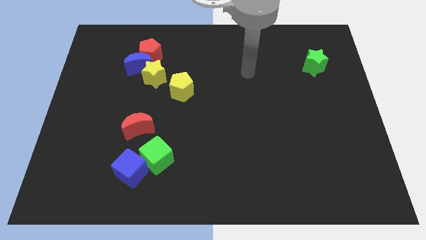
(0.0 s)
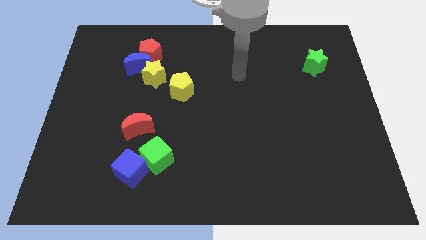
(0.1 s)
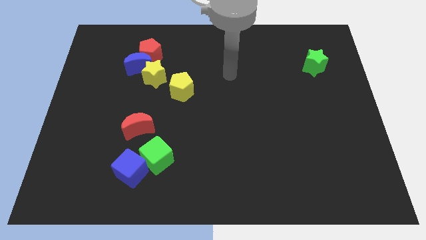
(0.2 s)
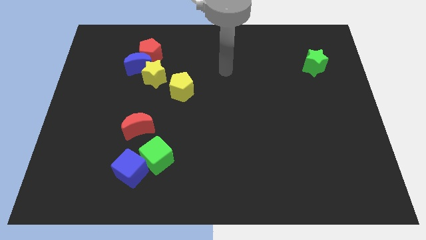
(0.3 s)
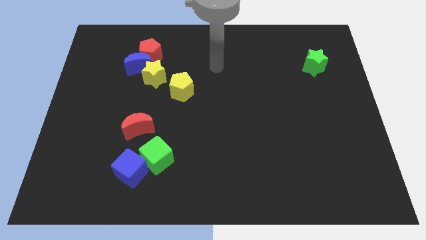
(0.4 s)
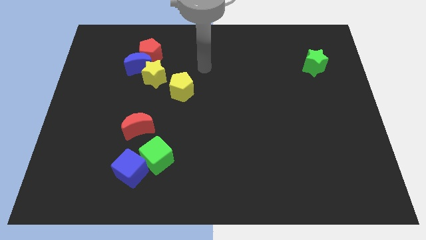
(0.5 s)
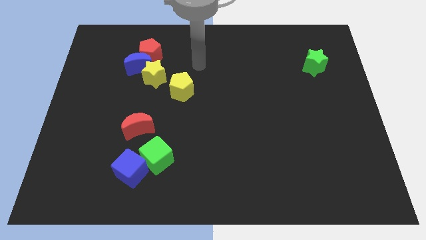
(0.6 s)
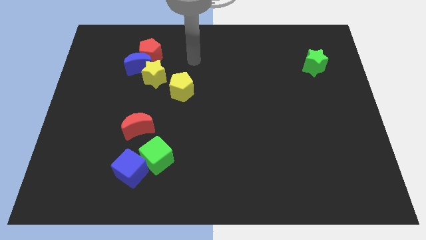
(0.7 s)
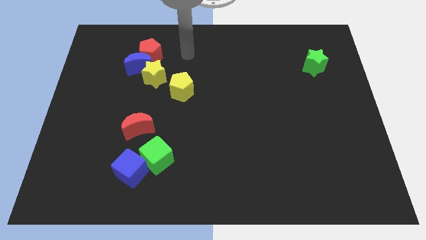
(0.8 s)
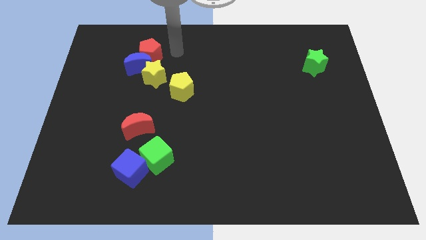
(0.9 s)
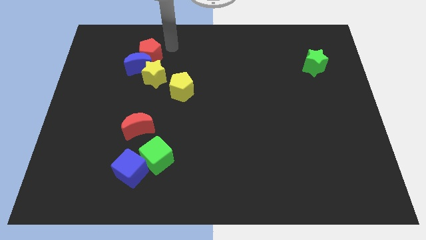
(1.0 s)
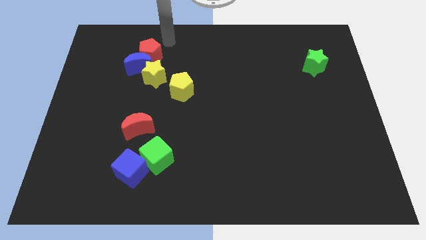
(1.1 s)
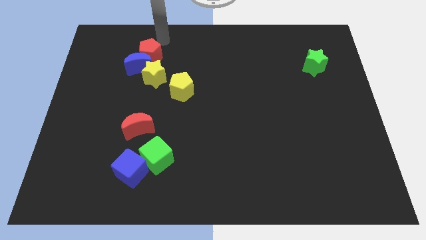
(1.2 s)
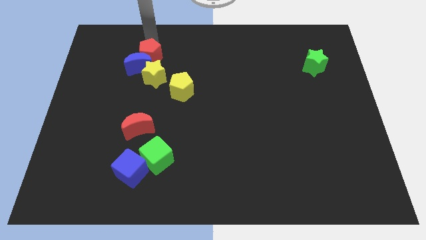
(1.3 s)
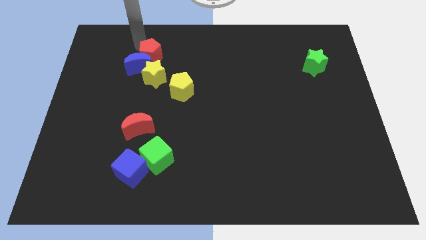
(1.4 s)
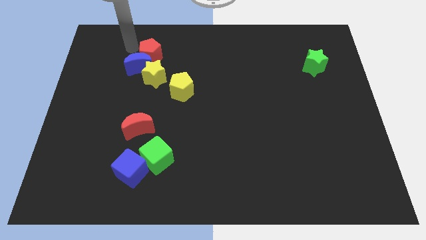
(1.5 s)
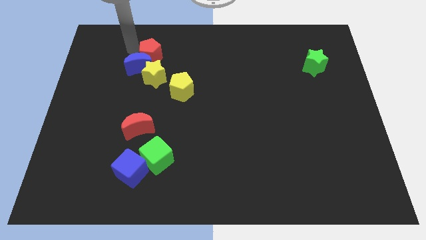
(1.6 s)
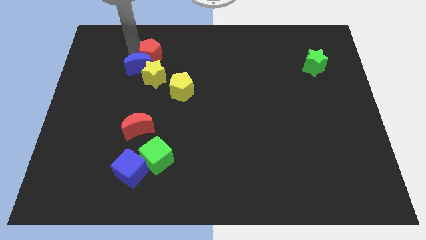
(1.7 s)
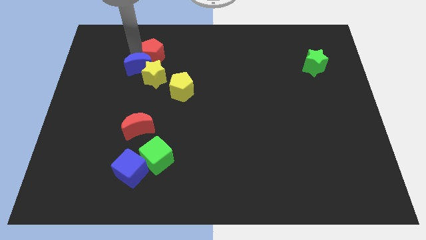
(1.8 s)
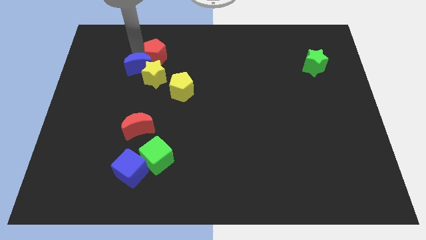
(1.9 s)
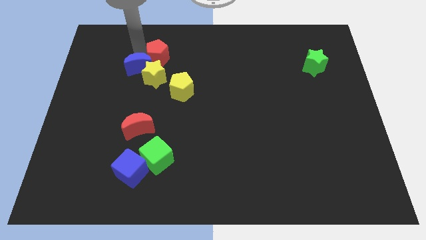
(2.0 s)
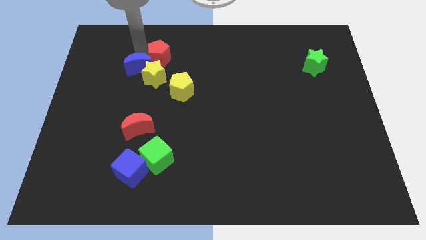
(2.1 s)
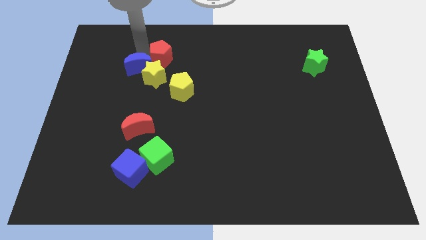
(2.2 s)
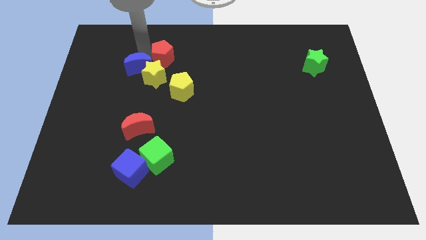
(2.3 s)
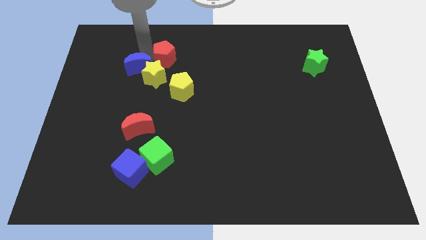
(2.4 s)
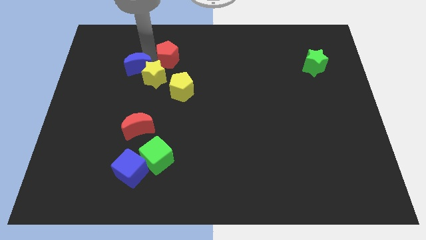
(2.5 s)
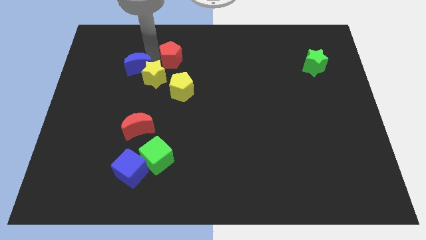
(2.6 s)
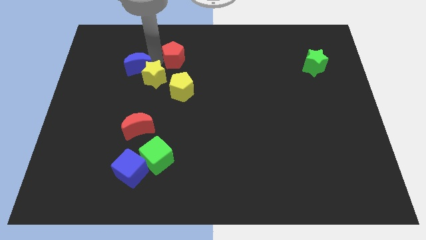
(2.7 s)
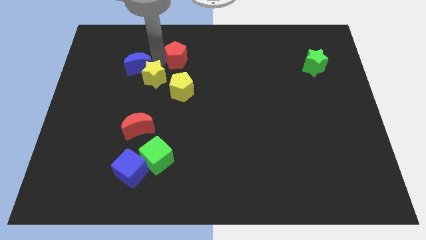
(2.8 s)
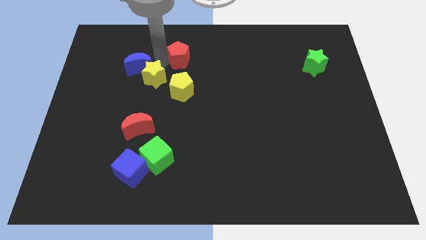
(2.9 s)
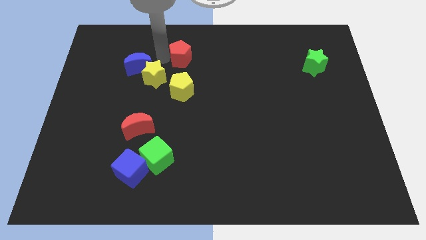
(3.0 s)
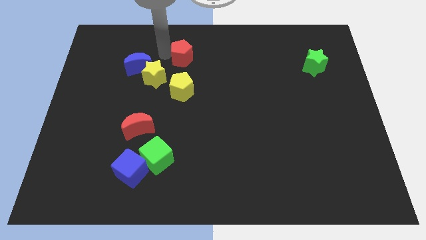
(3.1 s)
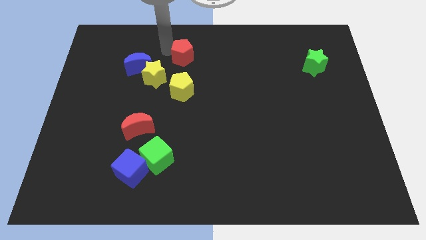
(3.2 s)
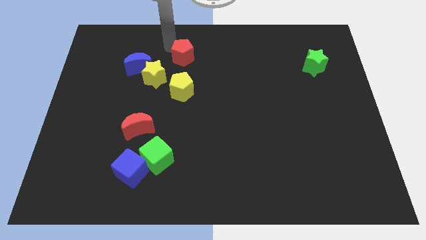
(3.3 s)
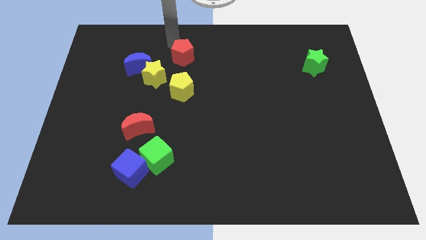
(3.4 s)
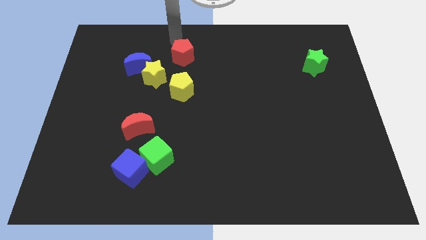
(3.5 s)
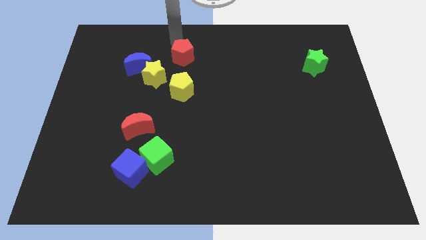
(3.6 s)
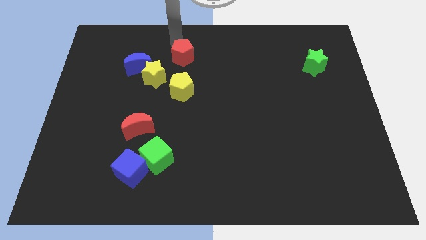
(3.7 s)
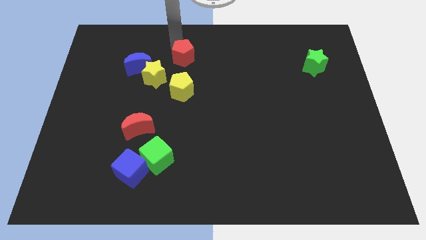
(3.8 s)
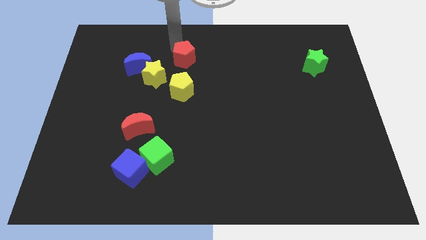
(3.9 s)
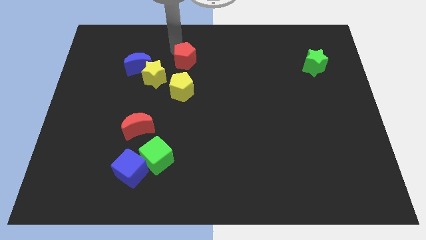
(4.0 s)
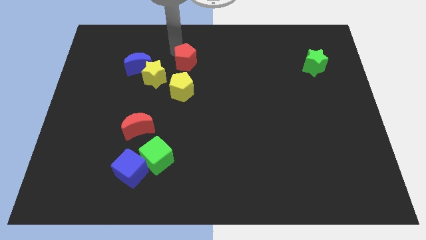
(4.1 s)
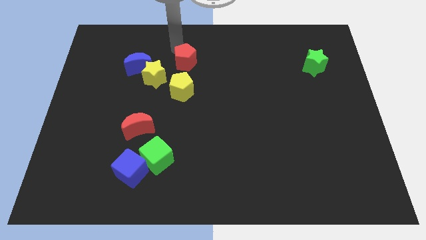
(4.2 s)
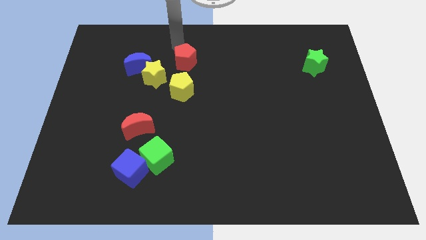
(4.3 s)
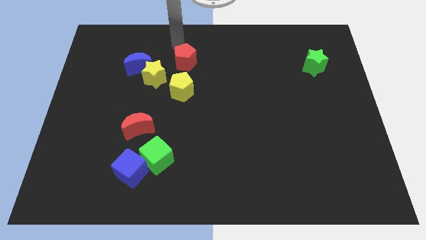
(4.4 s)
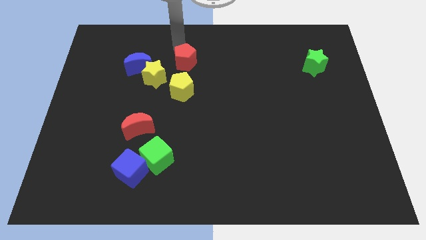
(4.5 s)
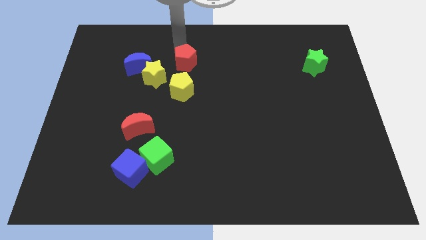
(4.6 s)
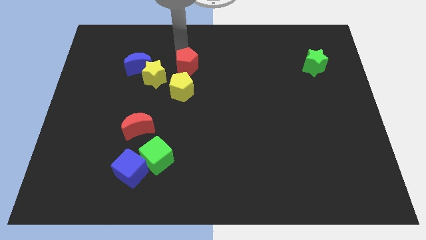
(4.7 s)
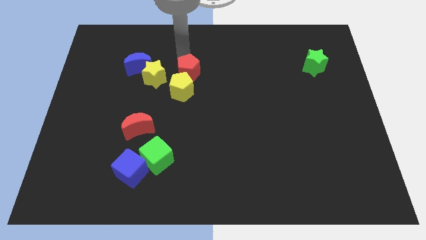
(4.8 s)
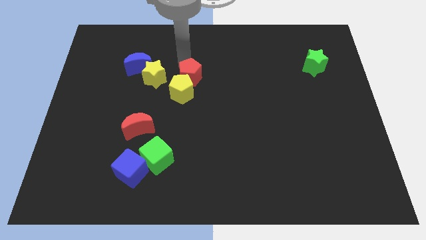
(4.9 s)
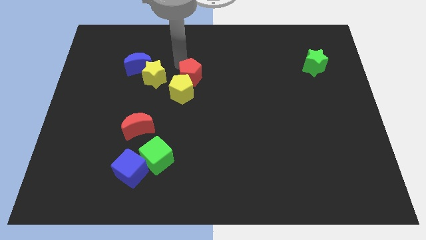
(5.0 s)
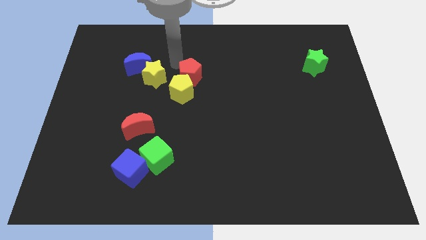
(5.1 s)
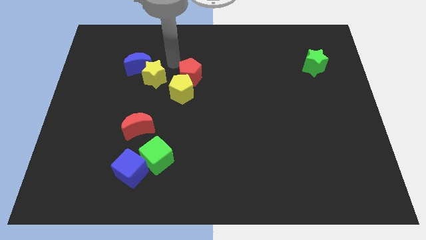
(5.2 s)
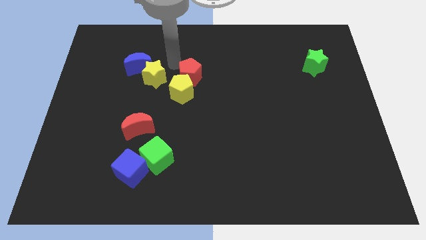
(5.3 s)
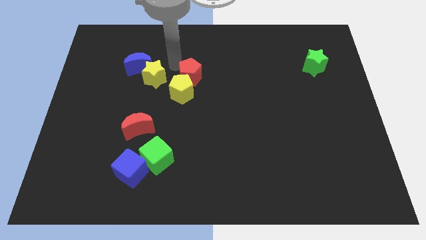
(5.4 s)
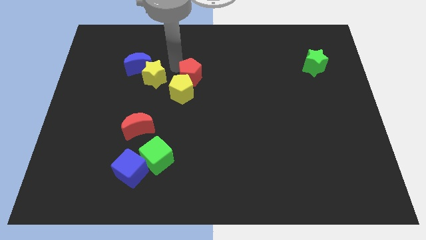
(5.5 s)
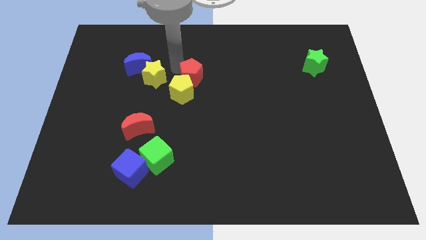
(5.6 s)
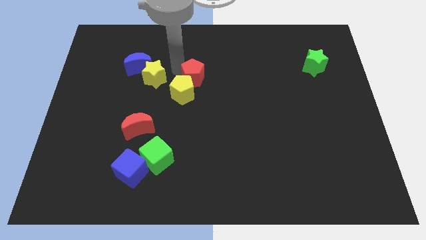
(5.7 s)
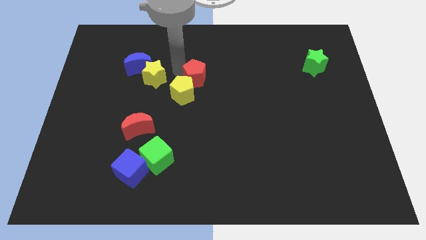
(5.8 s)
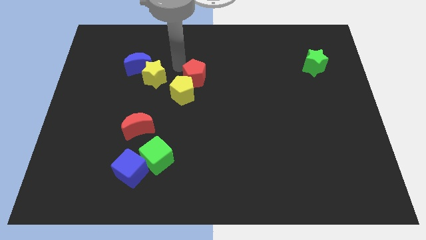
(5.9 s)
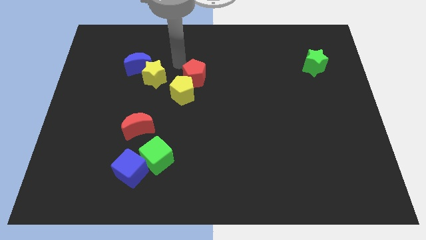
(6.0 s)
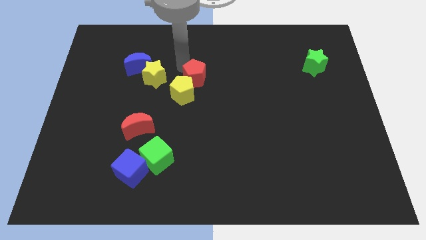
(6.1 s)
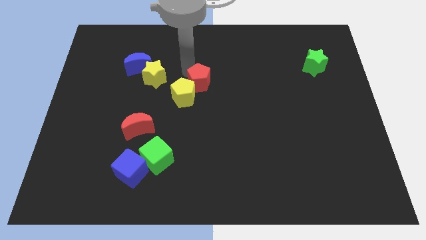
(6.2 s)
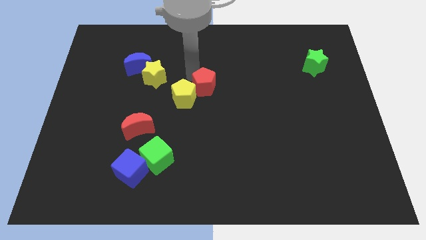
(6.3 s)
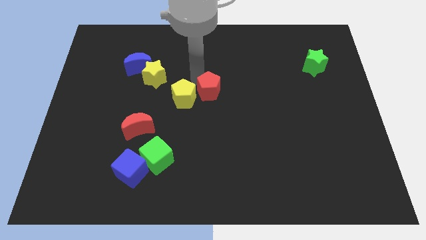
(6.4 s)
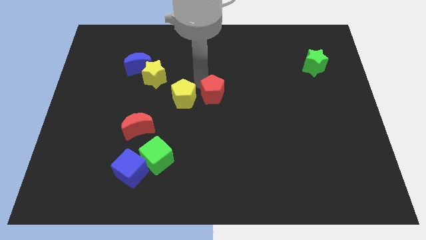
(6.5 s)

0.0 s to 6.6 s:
push the red pentagon downwards and then to the right

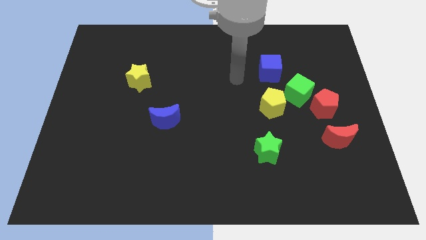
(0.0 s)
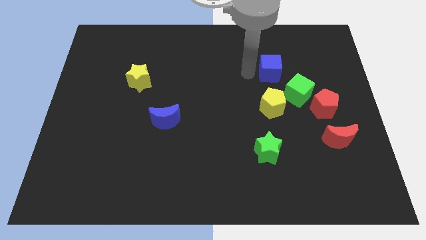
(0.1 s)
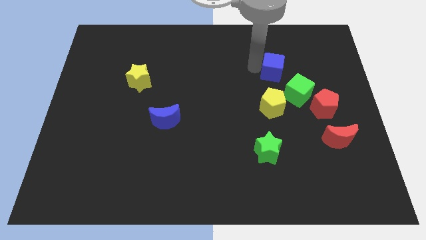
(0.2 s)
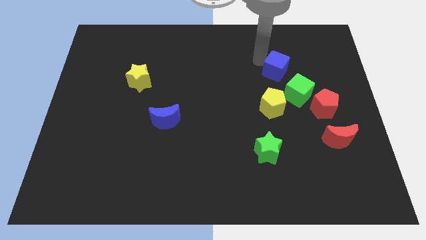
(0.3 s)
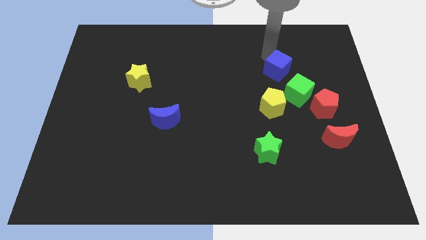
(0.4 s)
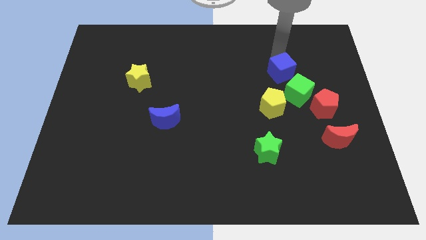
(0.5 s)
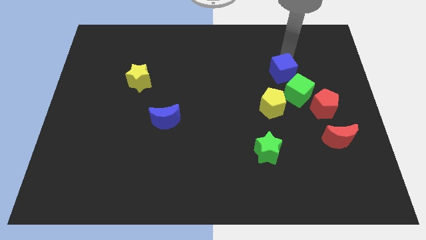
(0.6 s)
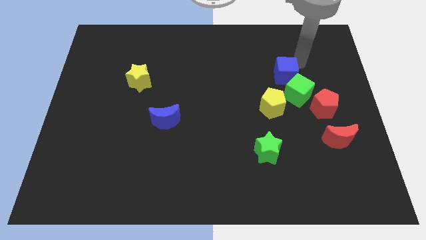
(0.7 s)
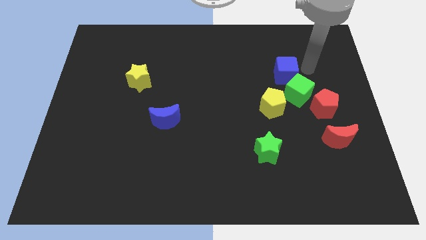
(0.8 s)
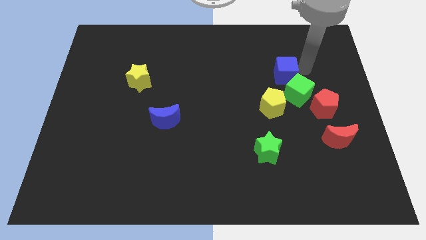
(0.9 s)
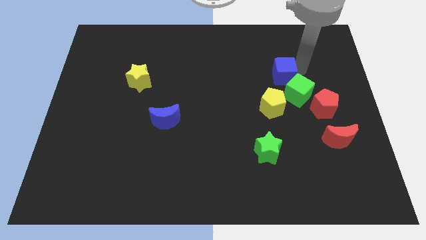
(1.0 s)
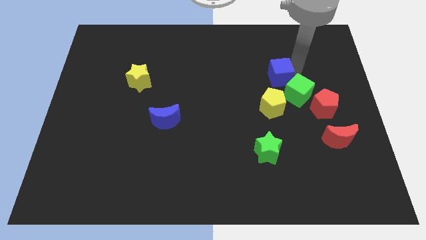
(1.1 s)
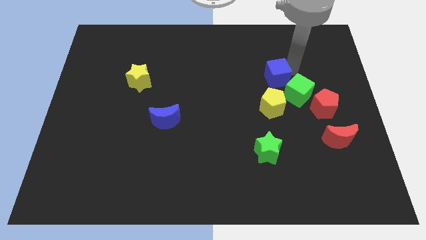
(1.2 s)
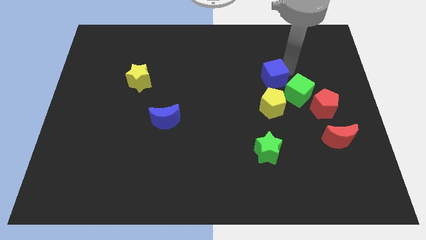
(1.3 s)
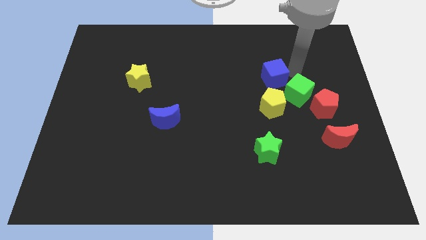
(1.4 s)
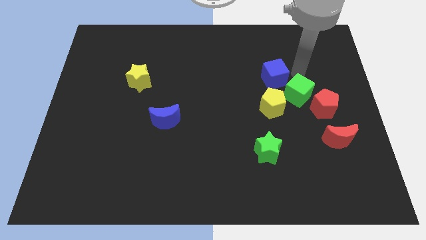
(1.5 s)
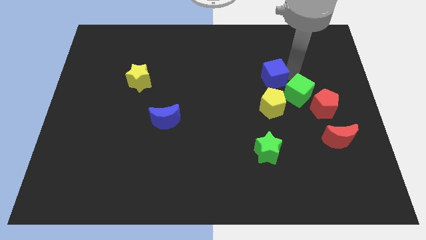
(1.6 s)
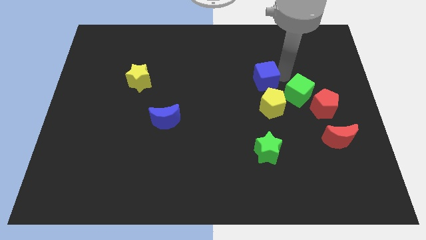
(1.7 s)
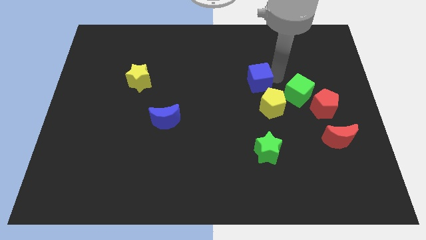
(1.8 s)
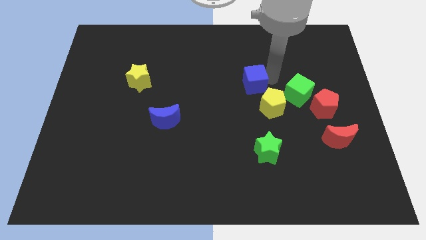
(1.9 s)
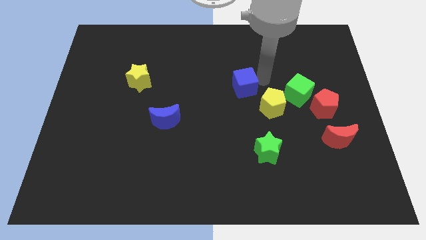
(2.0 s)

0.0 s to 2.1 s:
slide the blue cube somewhat diagonally down and to the left
